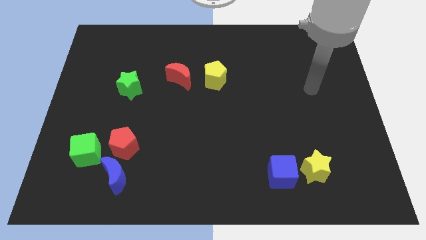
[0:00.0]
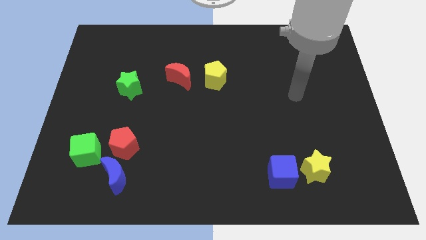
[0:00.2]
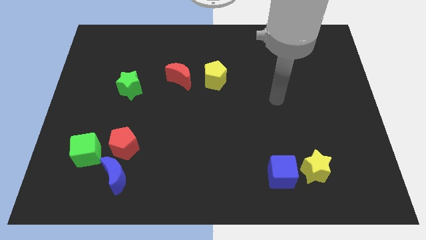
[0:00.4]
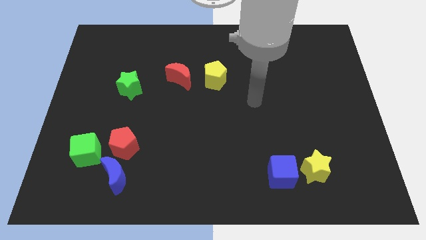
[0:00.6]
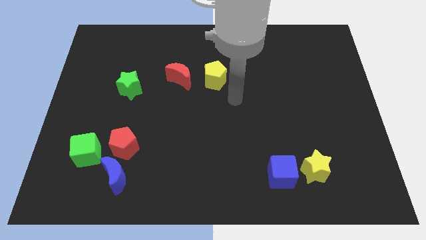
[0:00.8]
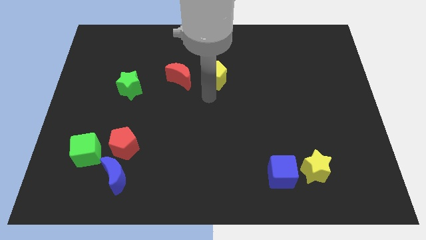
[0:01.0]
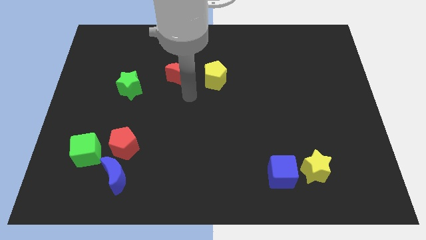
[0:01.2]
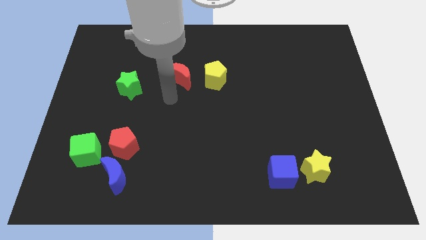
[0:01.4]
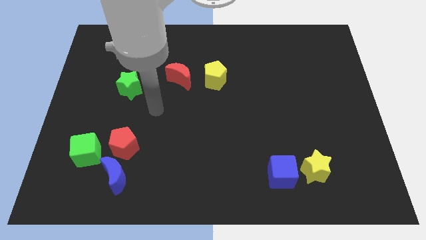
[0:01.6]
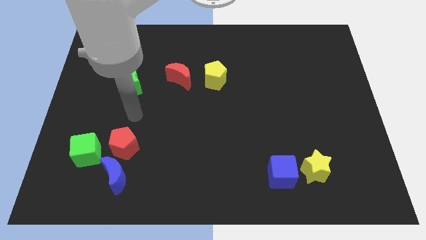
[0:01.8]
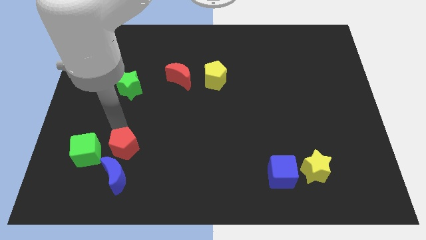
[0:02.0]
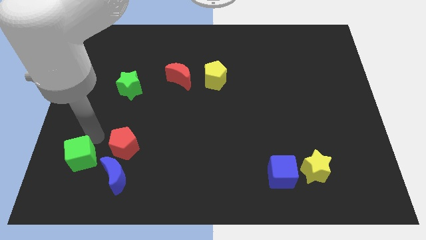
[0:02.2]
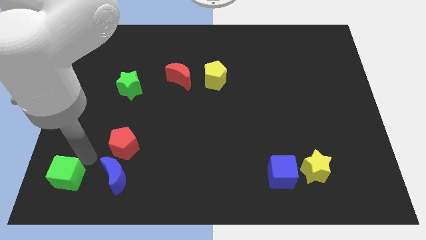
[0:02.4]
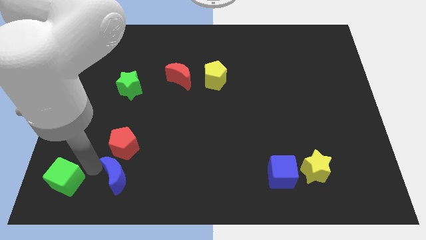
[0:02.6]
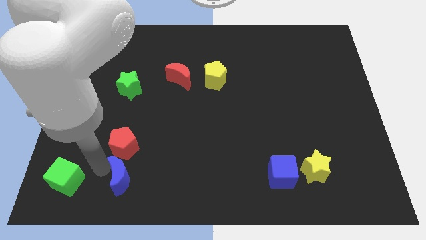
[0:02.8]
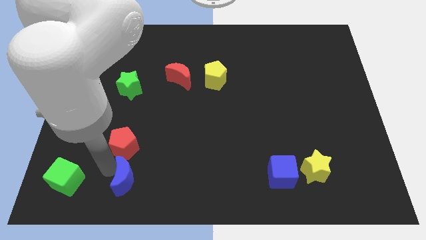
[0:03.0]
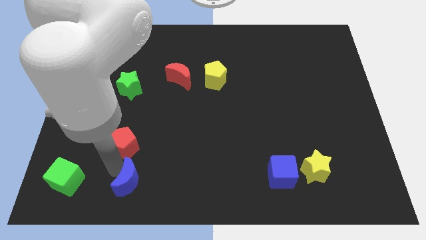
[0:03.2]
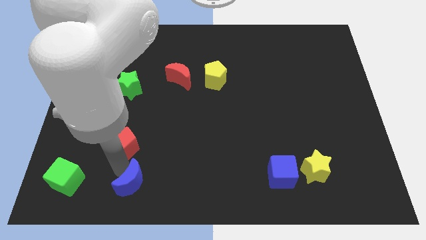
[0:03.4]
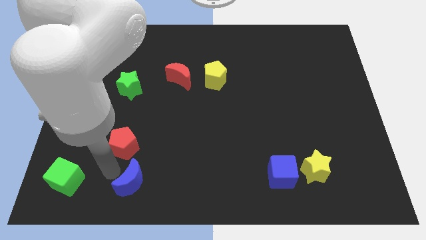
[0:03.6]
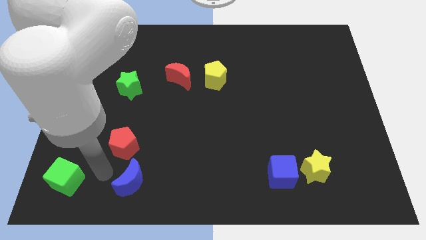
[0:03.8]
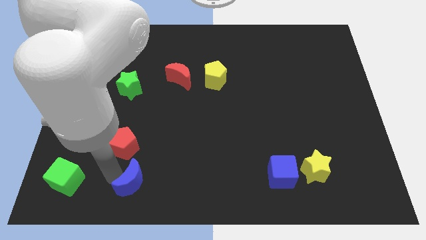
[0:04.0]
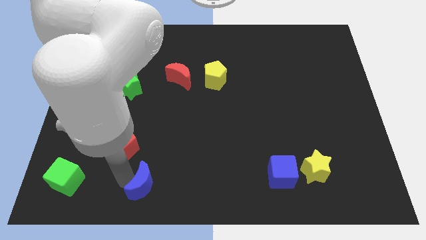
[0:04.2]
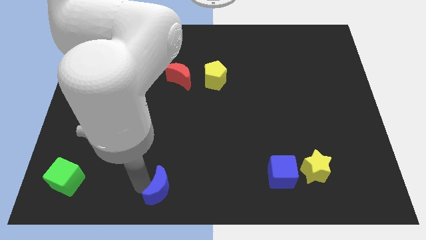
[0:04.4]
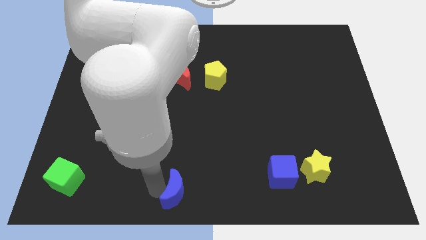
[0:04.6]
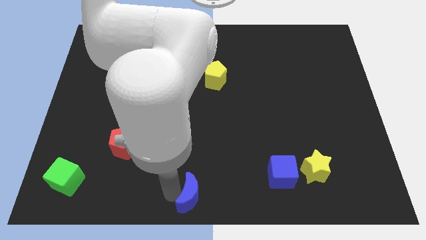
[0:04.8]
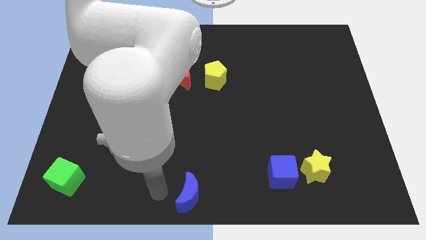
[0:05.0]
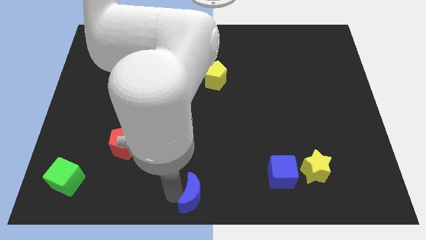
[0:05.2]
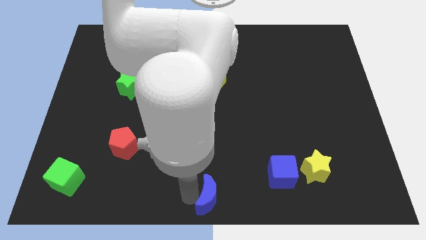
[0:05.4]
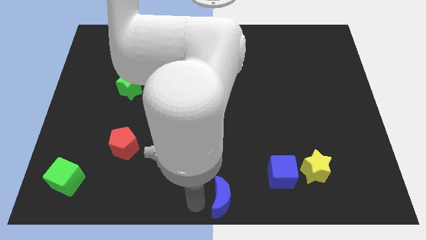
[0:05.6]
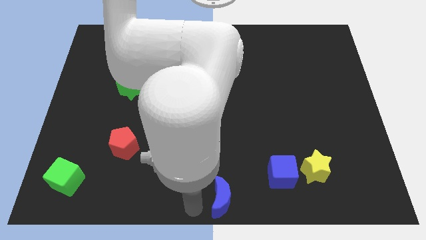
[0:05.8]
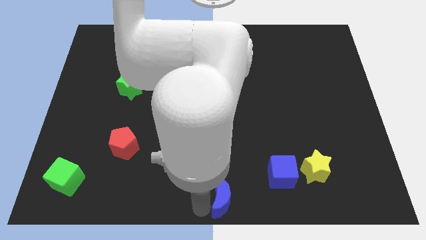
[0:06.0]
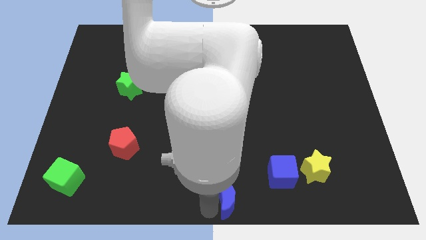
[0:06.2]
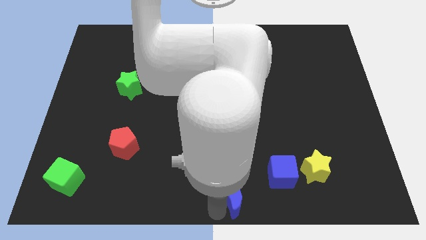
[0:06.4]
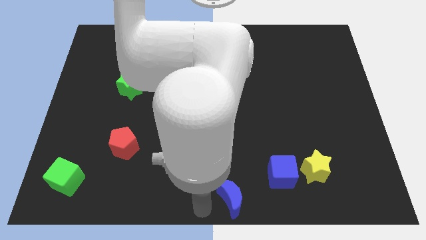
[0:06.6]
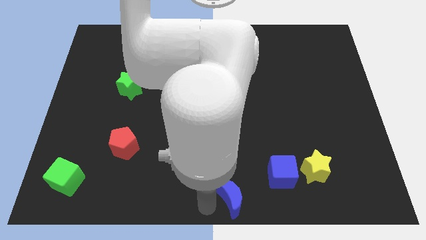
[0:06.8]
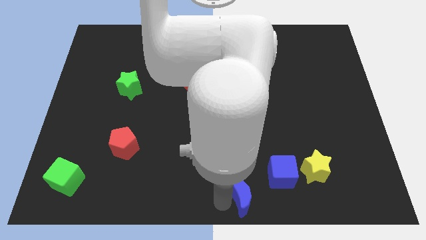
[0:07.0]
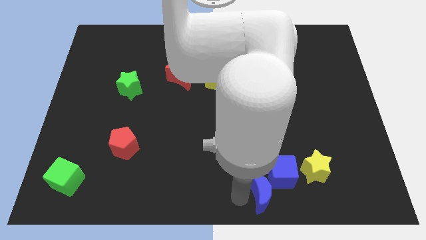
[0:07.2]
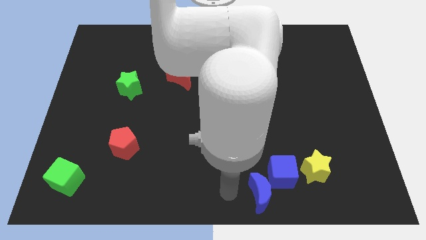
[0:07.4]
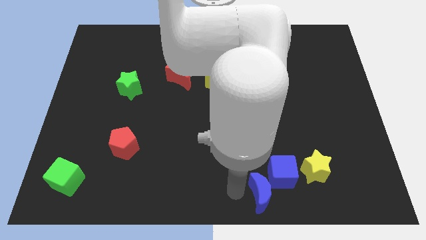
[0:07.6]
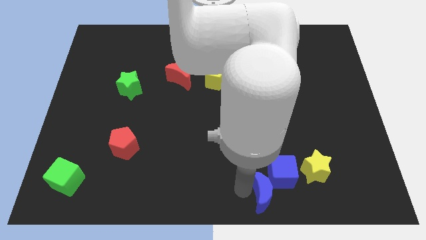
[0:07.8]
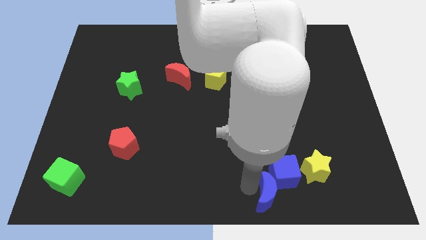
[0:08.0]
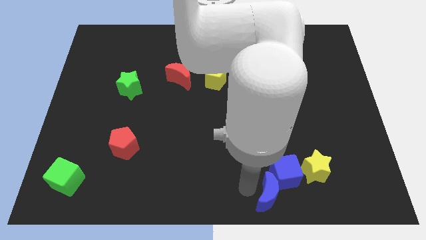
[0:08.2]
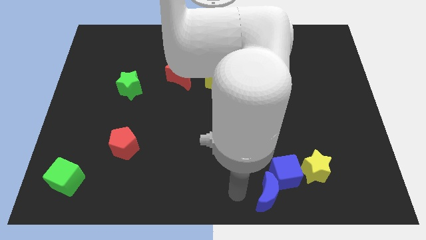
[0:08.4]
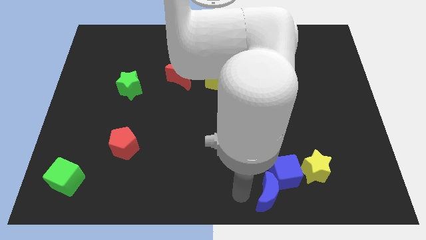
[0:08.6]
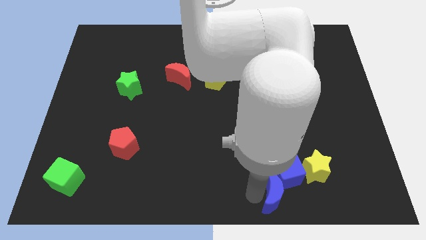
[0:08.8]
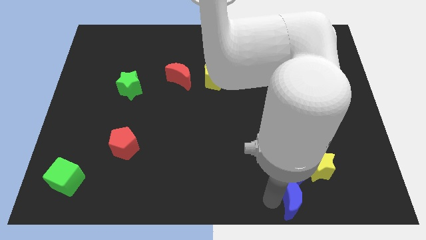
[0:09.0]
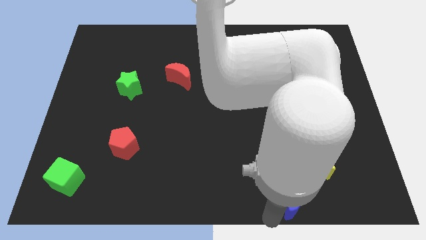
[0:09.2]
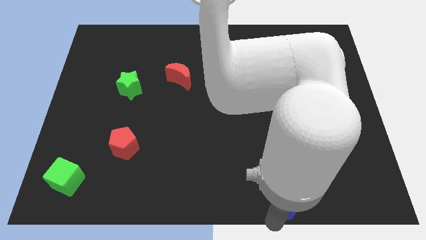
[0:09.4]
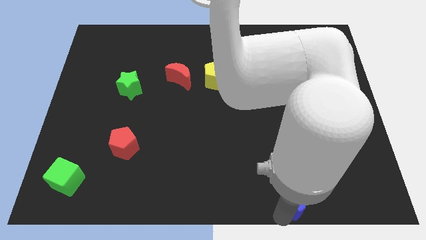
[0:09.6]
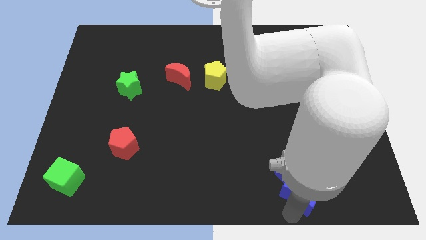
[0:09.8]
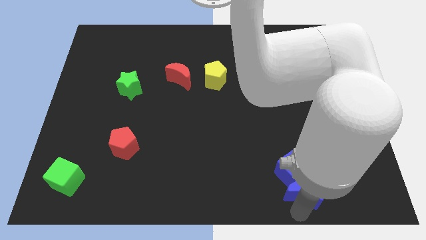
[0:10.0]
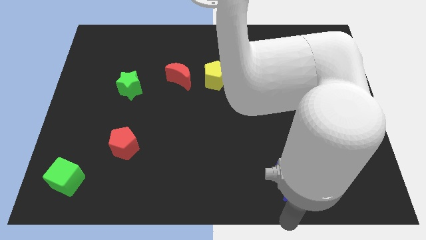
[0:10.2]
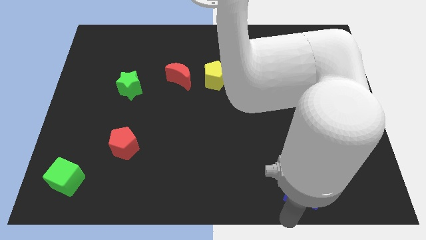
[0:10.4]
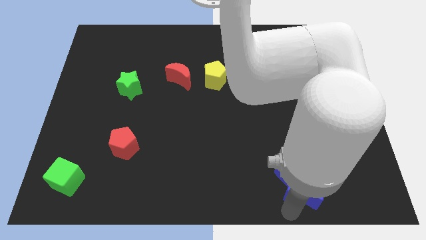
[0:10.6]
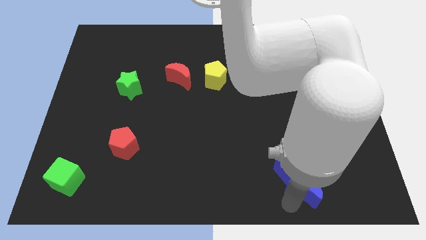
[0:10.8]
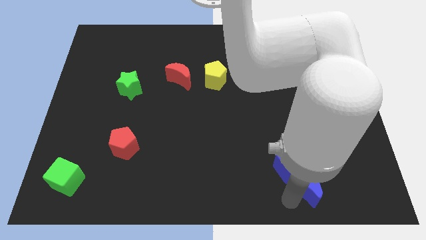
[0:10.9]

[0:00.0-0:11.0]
put the blue moon close to the yellow star

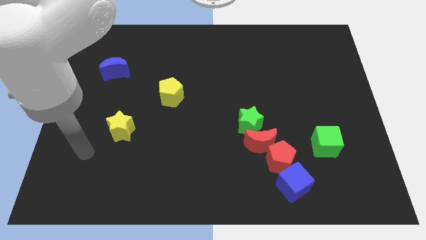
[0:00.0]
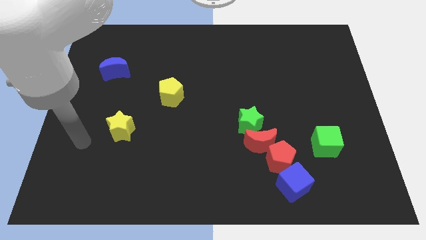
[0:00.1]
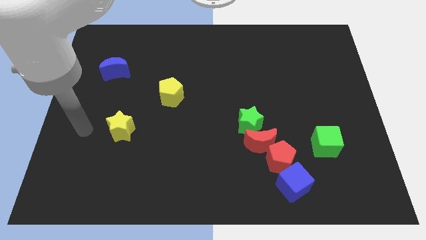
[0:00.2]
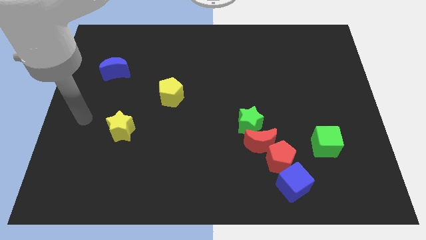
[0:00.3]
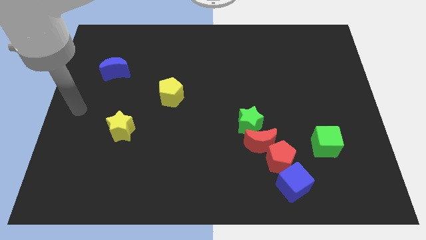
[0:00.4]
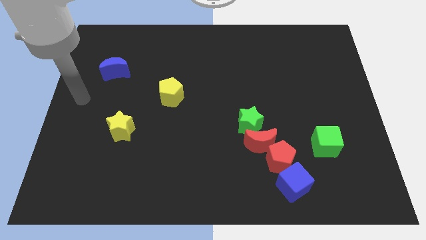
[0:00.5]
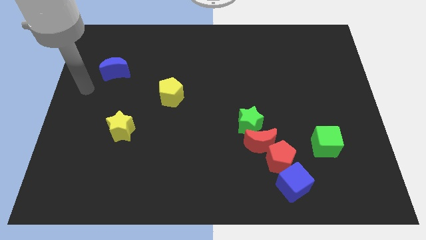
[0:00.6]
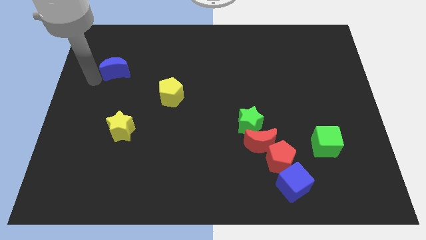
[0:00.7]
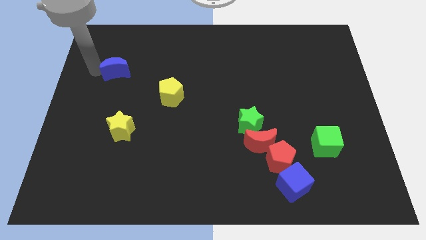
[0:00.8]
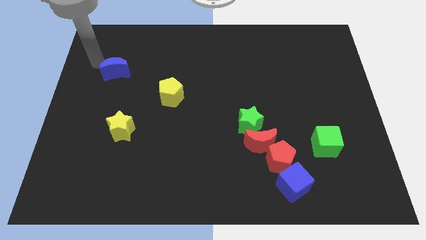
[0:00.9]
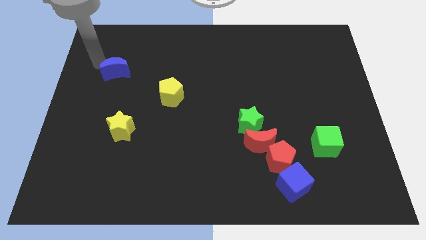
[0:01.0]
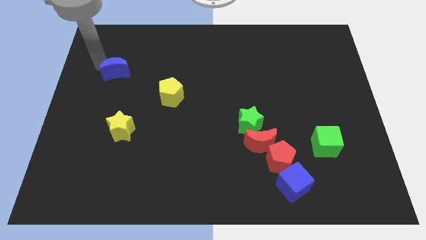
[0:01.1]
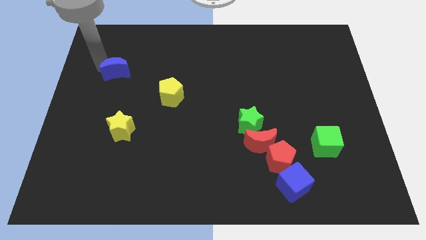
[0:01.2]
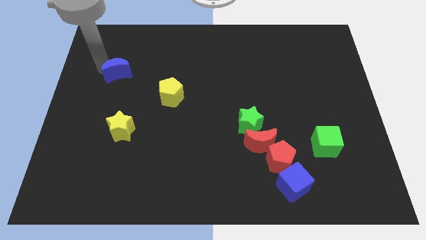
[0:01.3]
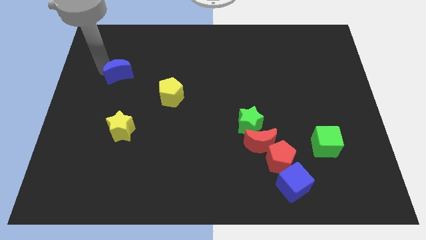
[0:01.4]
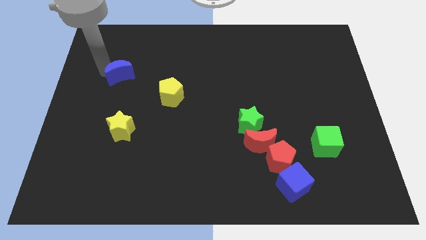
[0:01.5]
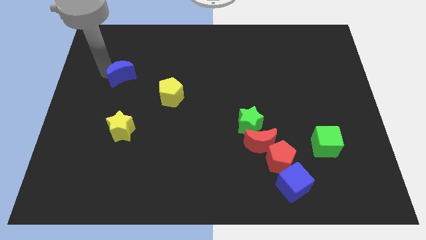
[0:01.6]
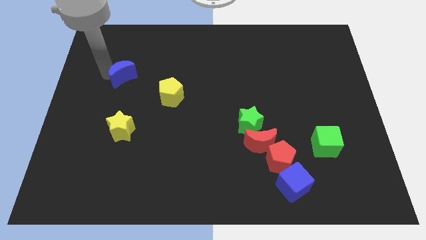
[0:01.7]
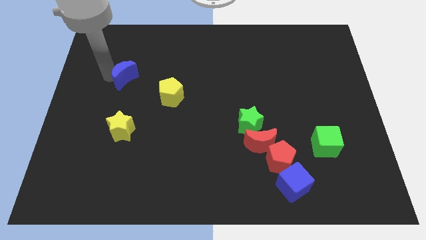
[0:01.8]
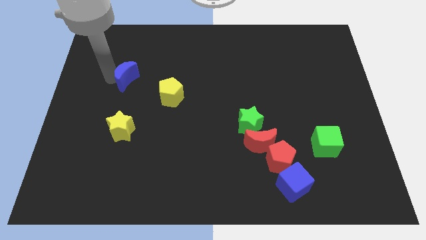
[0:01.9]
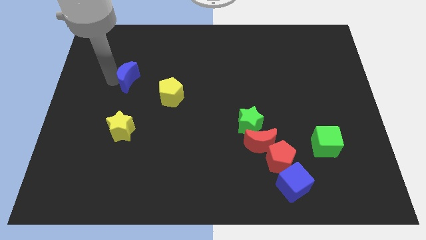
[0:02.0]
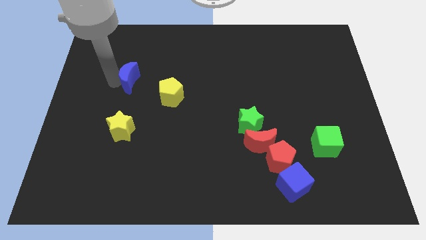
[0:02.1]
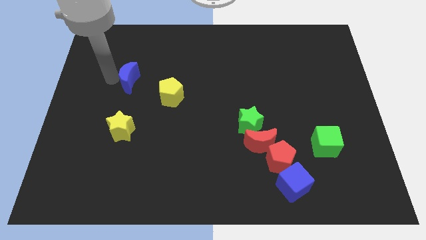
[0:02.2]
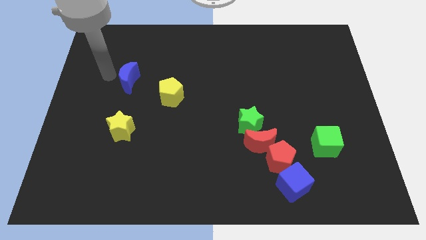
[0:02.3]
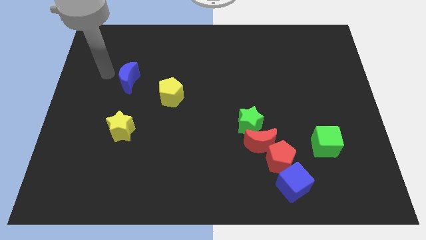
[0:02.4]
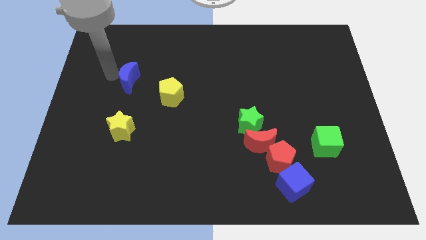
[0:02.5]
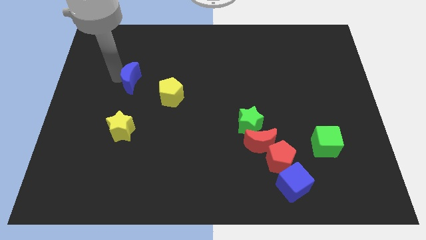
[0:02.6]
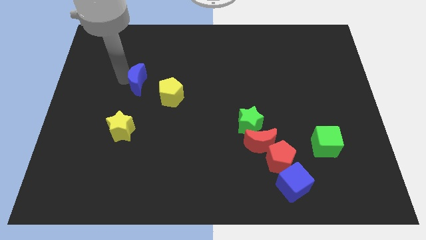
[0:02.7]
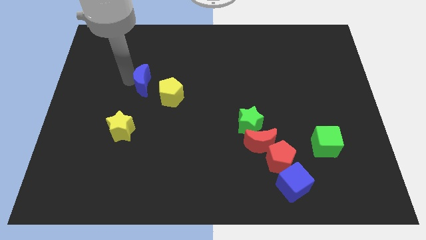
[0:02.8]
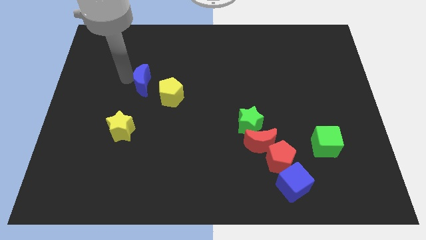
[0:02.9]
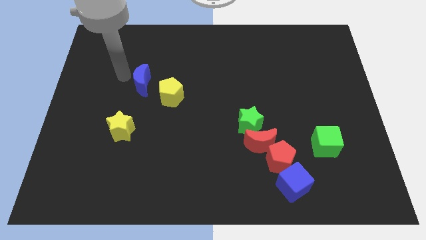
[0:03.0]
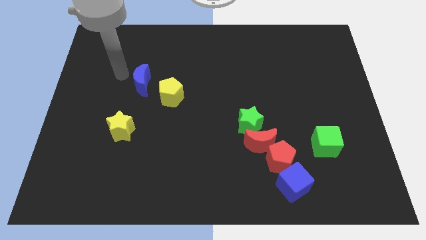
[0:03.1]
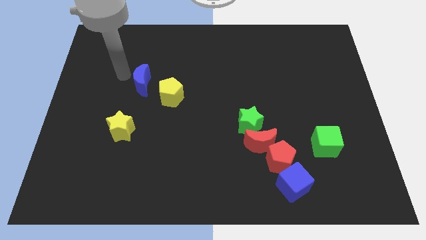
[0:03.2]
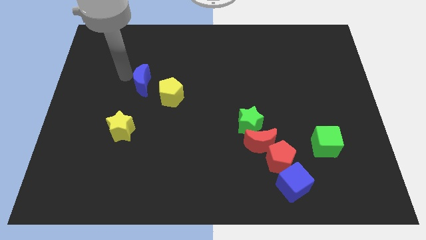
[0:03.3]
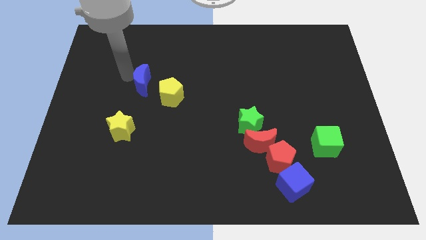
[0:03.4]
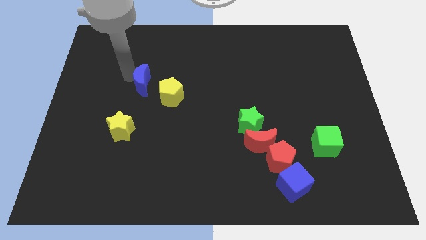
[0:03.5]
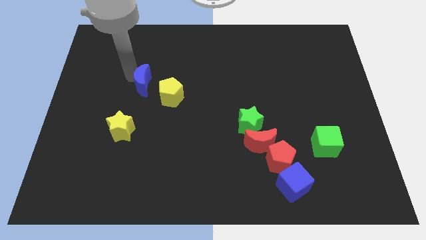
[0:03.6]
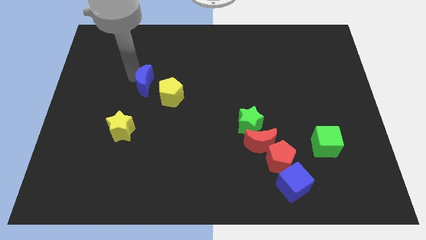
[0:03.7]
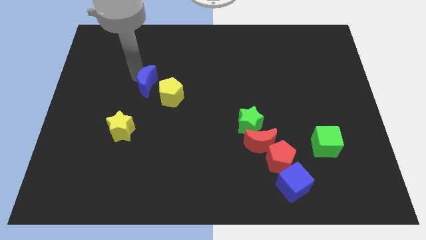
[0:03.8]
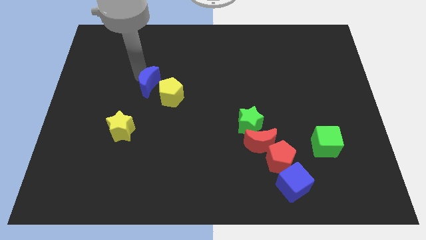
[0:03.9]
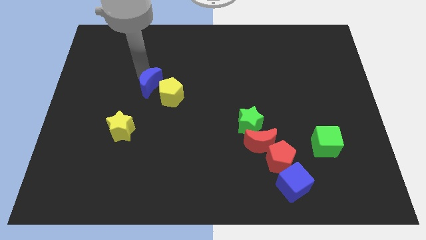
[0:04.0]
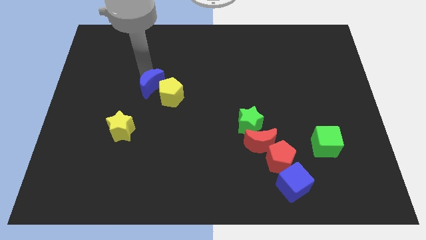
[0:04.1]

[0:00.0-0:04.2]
push the blue moon to the yellow pentagon
